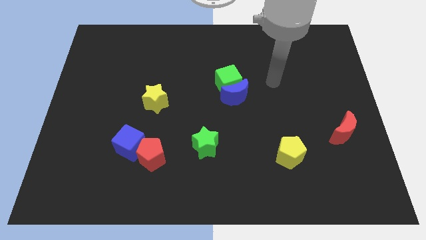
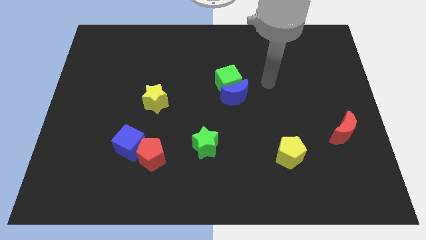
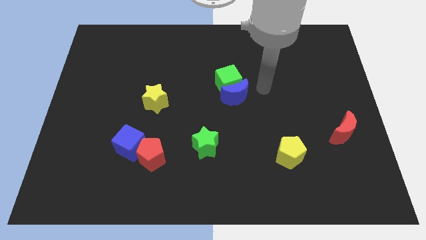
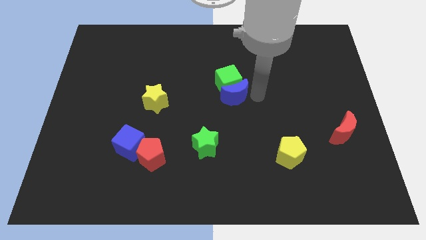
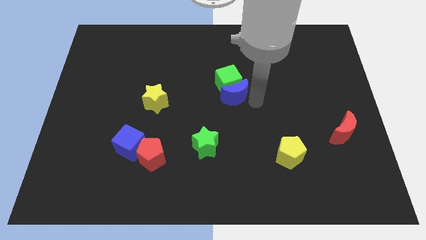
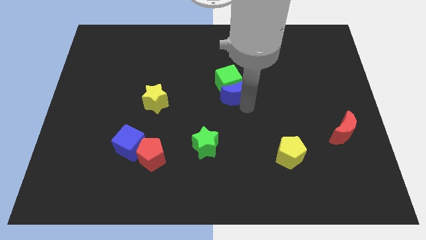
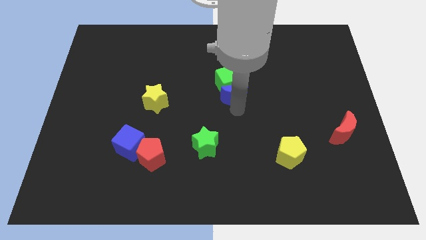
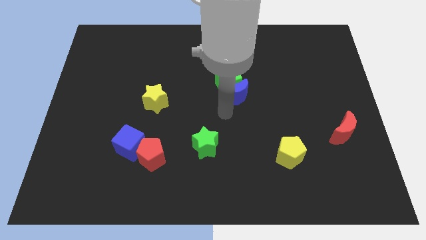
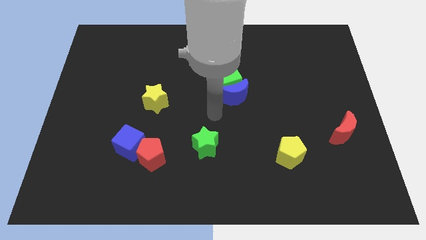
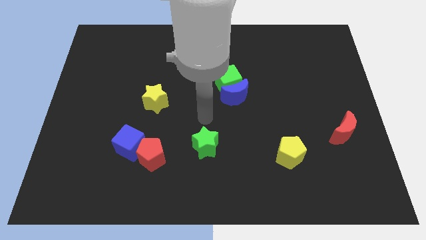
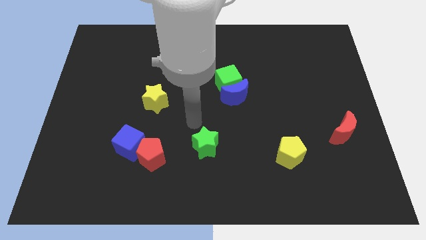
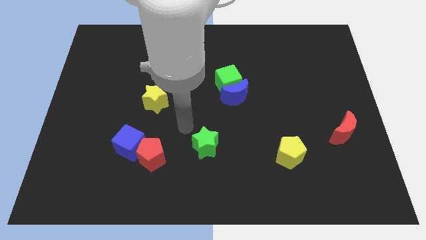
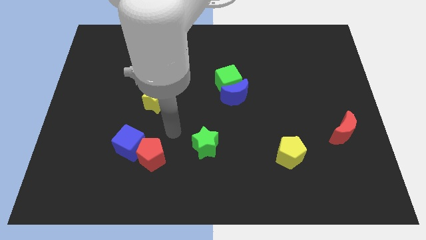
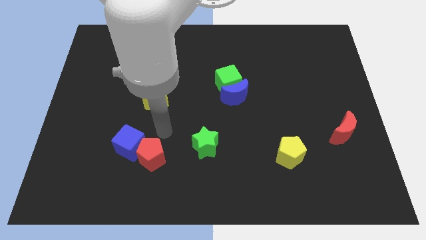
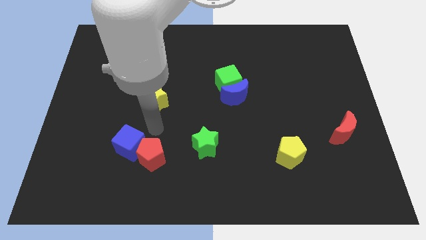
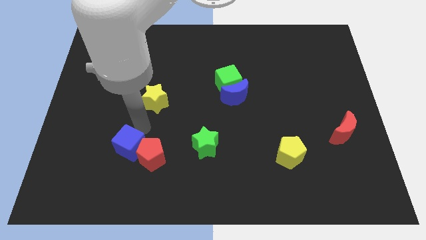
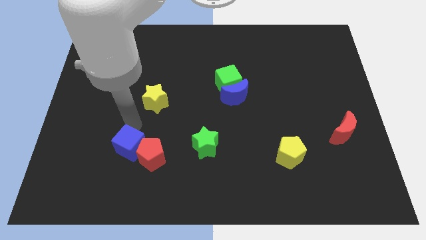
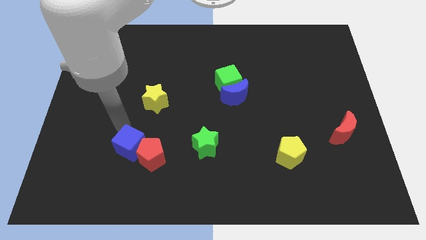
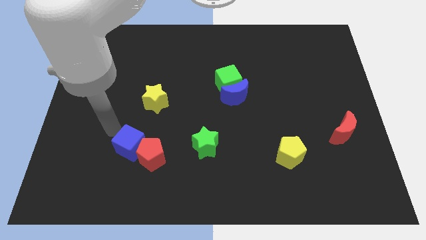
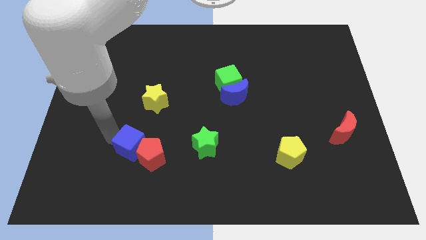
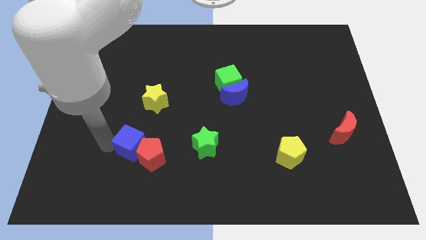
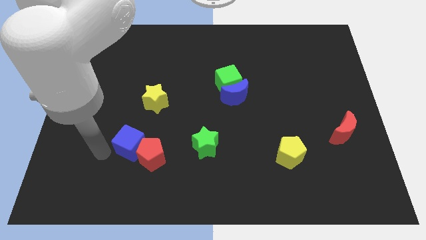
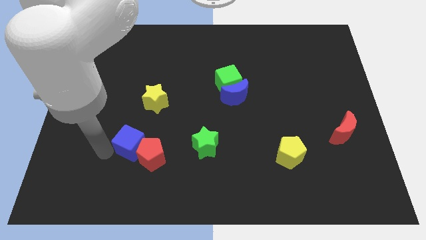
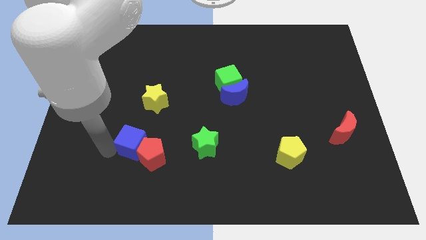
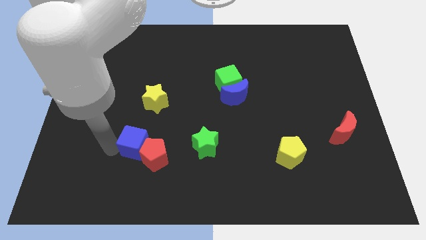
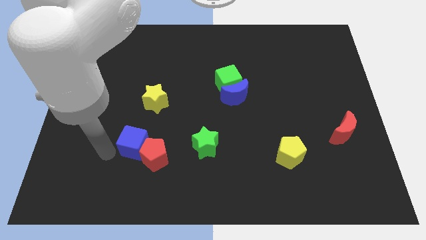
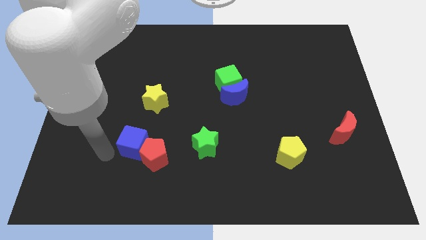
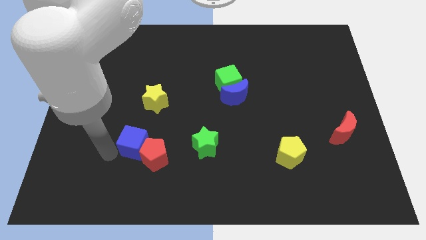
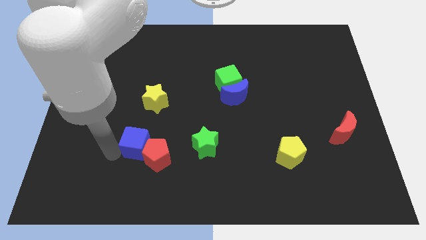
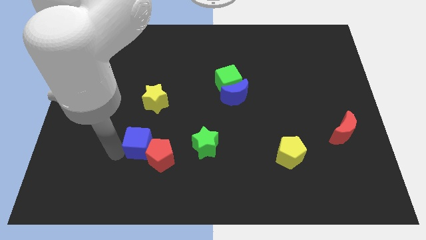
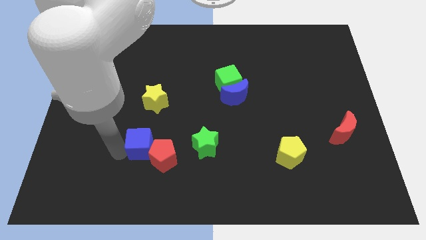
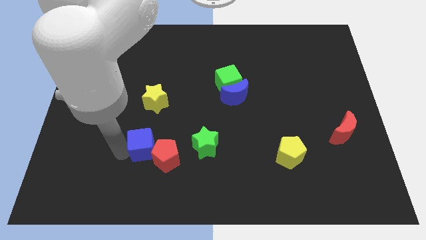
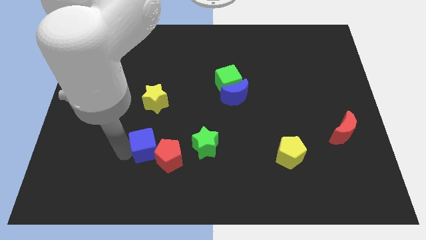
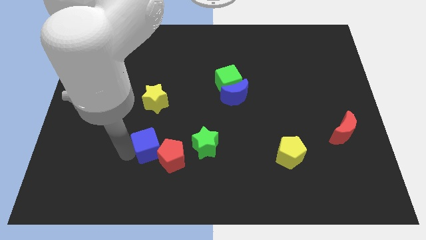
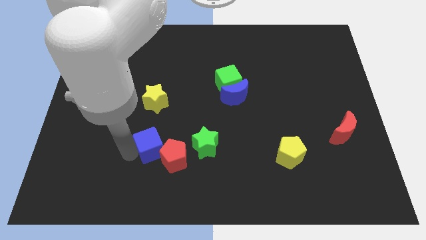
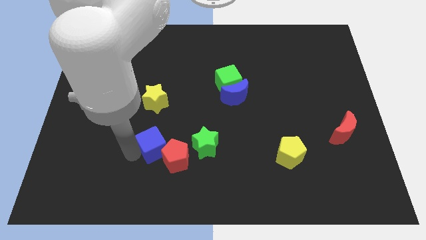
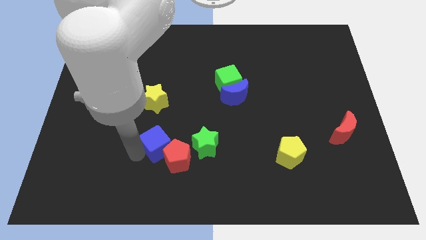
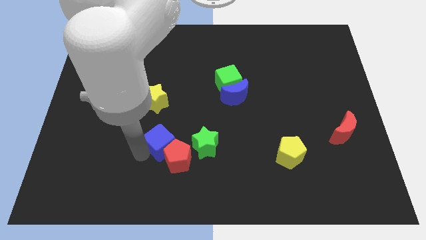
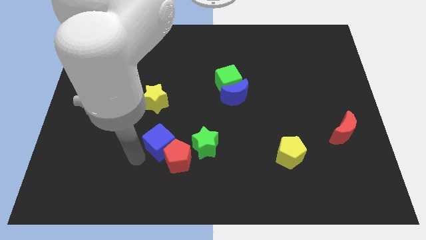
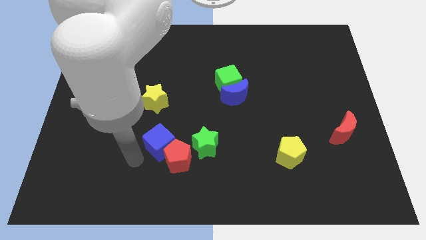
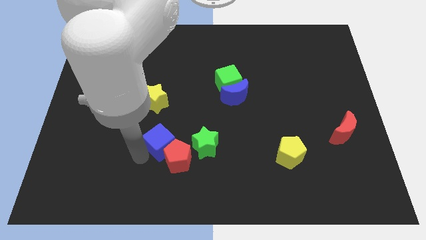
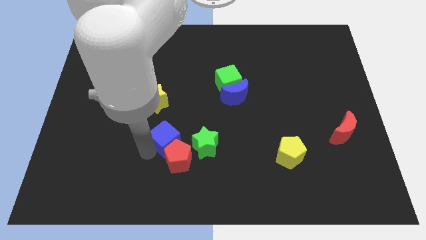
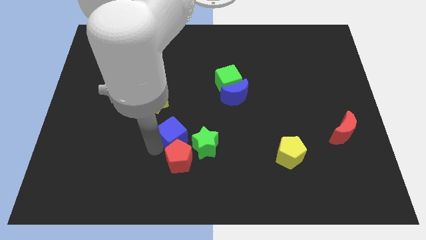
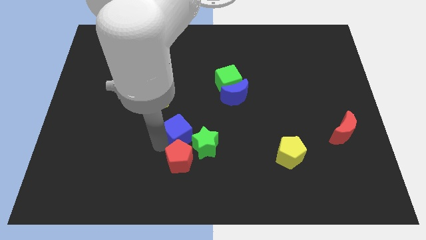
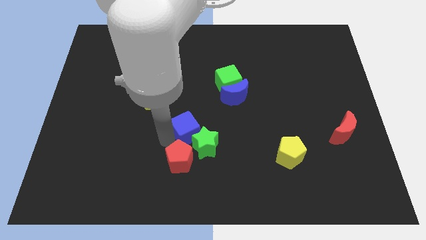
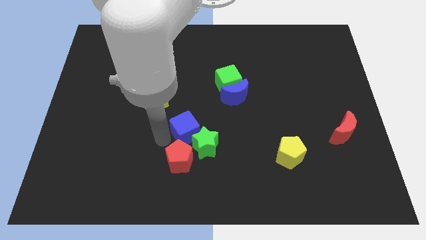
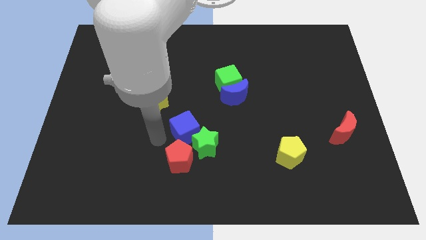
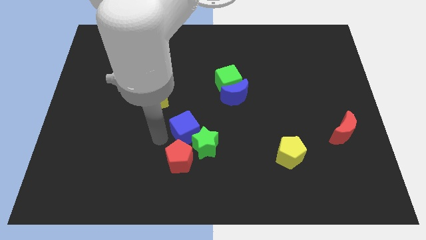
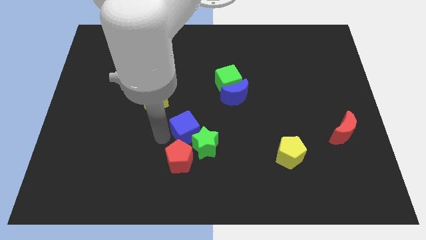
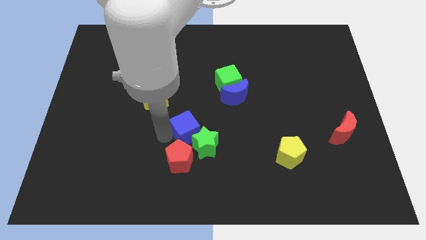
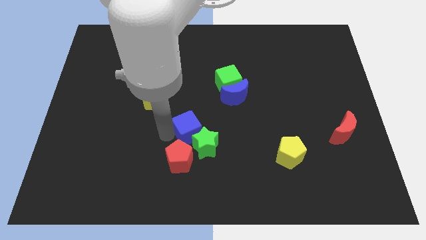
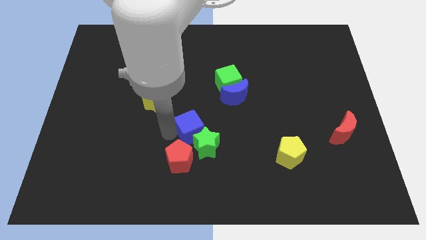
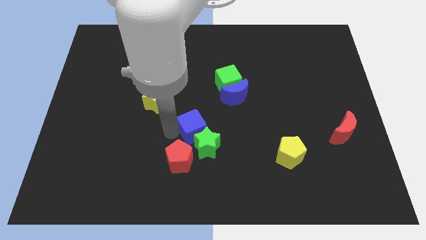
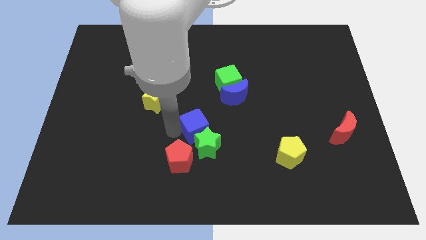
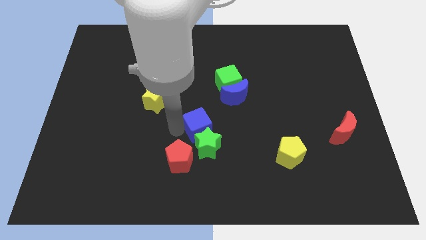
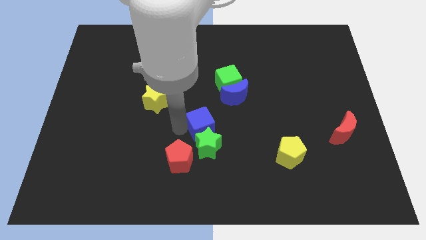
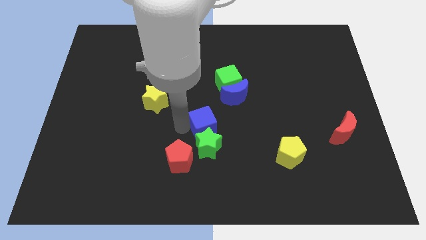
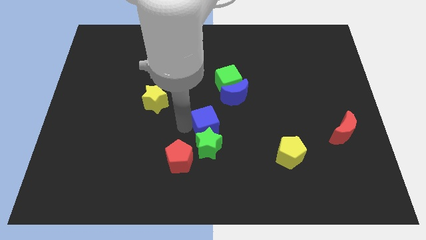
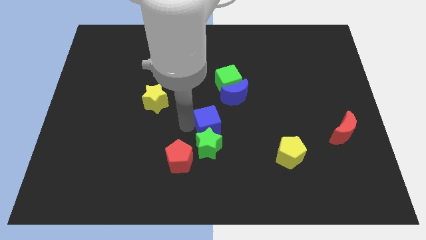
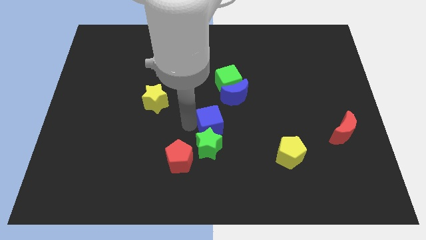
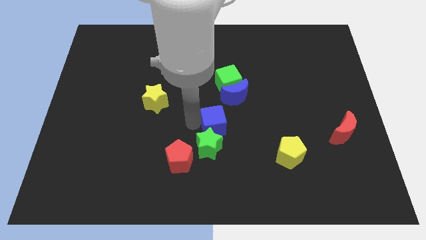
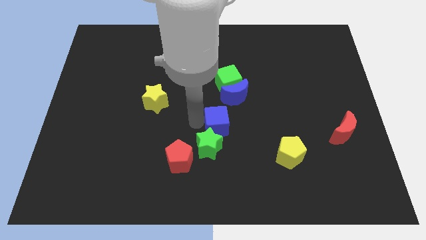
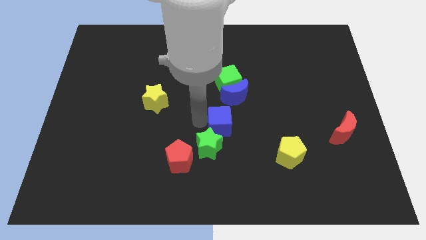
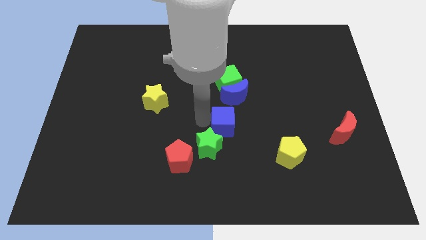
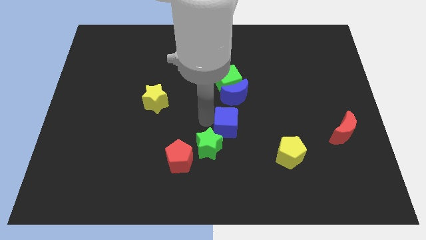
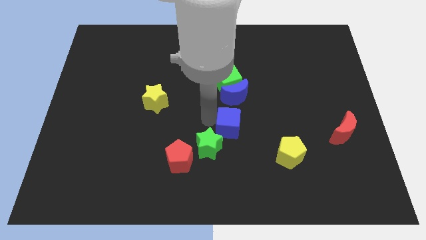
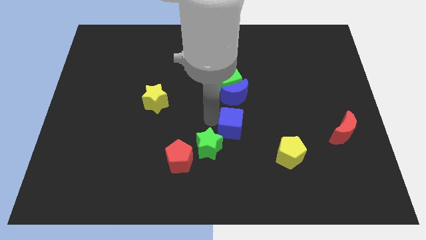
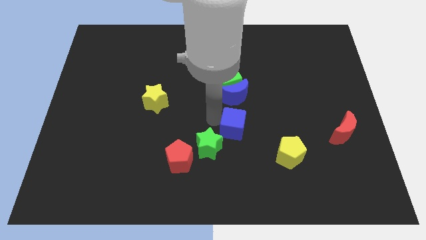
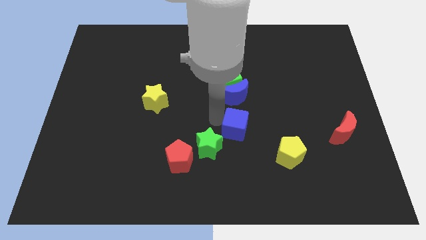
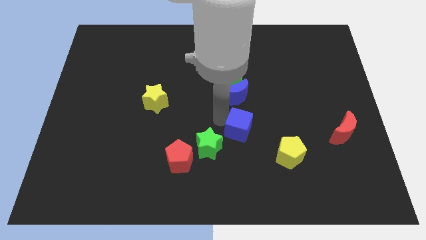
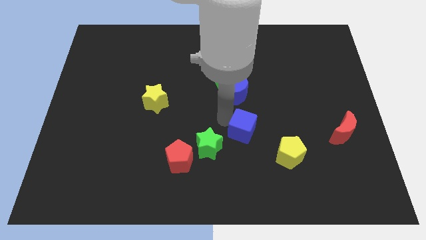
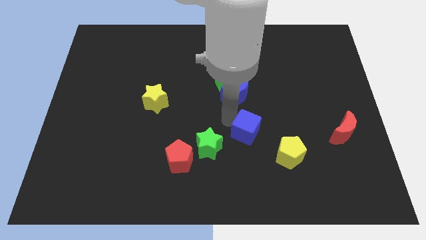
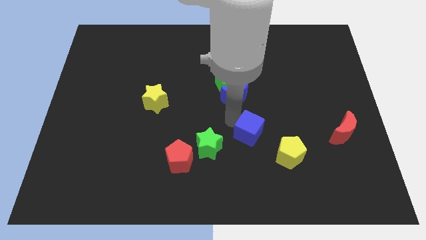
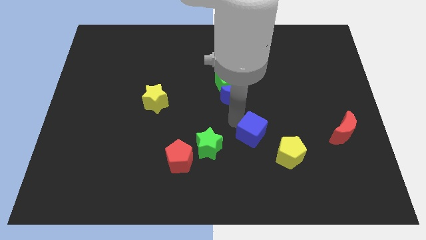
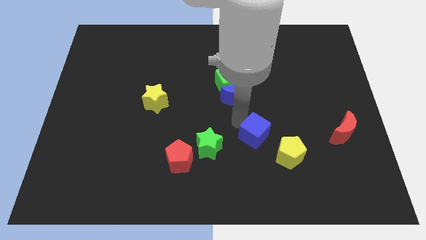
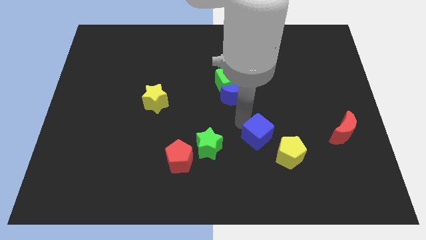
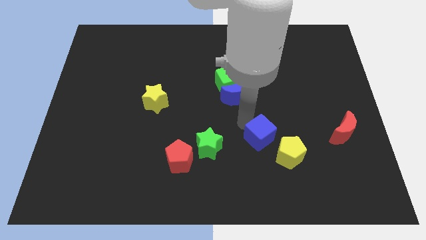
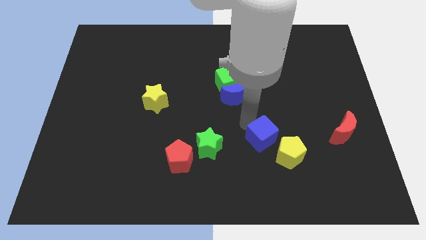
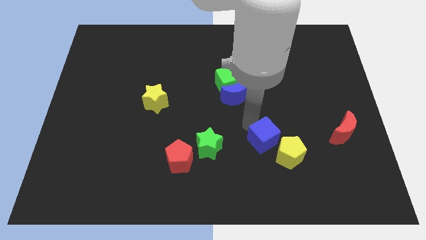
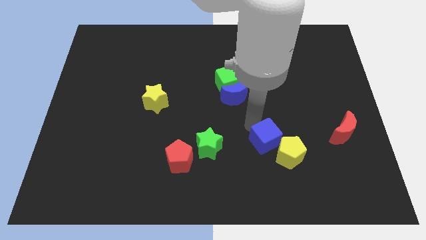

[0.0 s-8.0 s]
put the blue cube to the yellow pentagon
